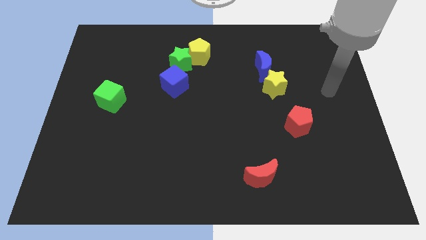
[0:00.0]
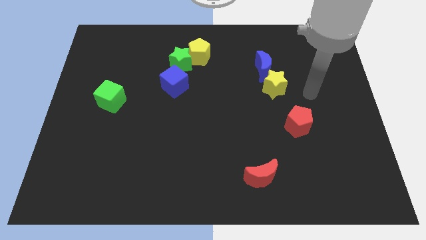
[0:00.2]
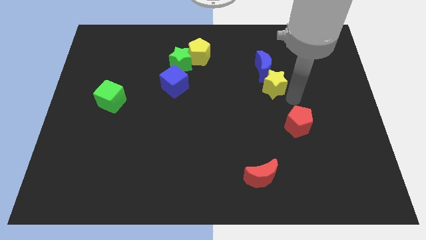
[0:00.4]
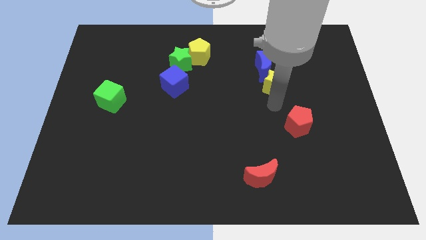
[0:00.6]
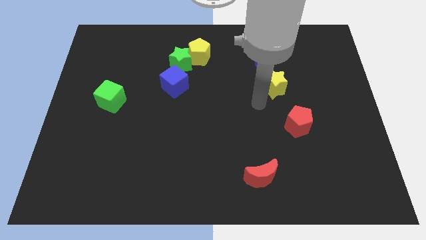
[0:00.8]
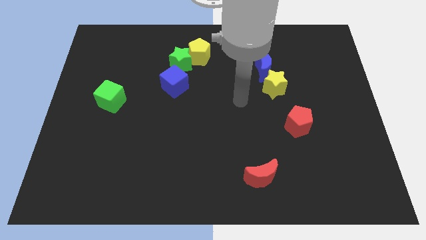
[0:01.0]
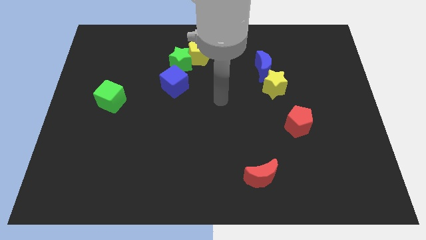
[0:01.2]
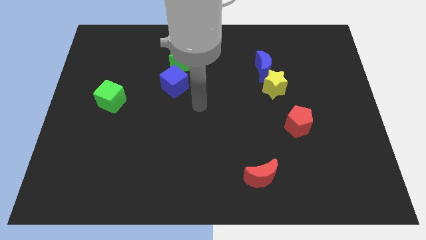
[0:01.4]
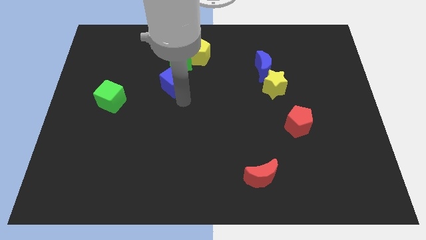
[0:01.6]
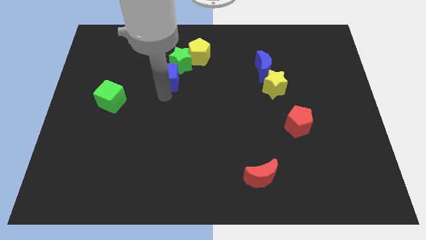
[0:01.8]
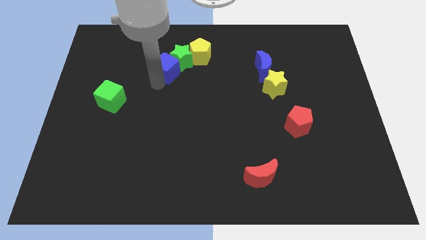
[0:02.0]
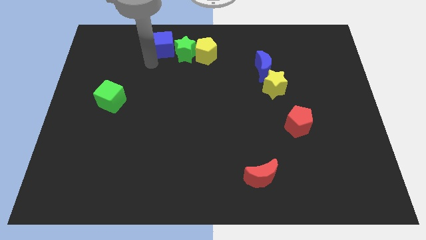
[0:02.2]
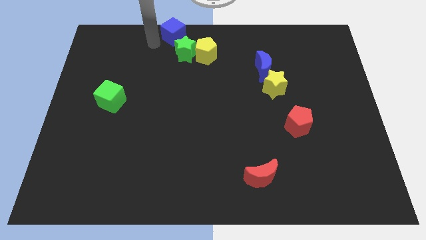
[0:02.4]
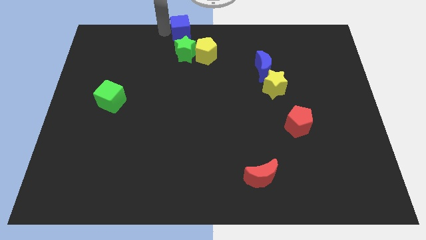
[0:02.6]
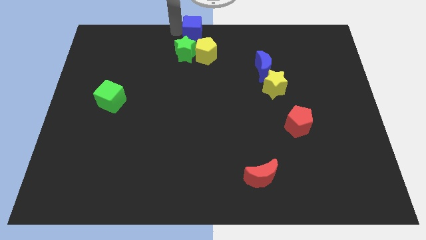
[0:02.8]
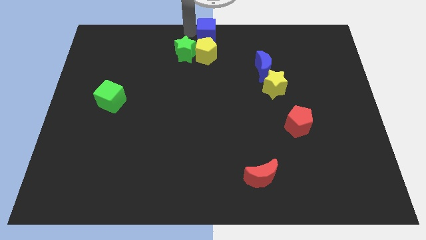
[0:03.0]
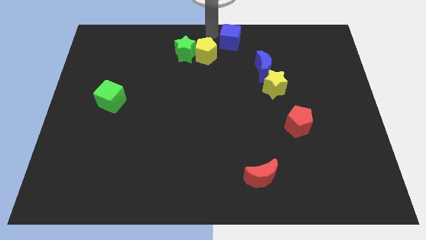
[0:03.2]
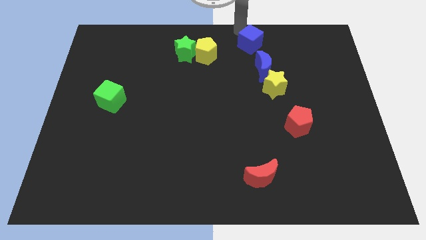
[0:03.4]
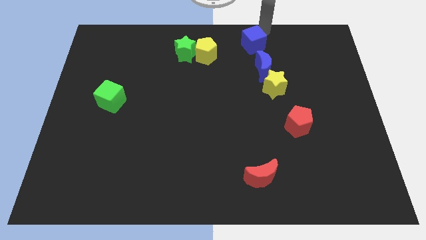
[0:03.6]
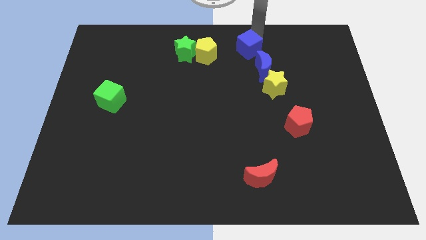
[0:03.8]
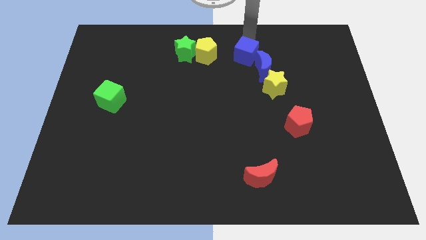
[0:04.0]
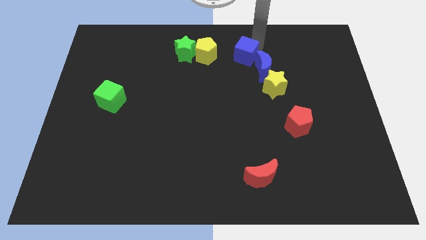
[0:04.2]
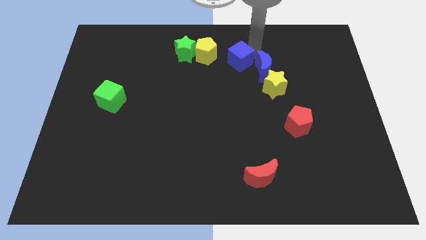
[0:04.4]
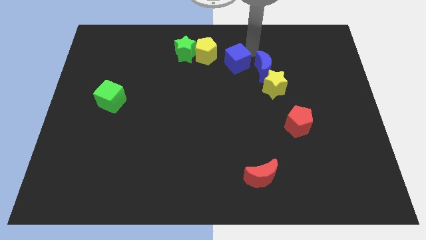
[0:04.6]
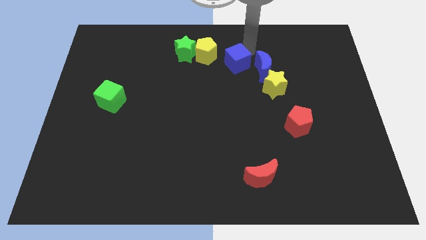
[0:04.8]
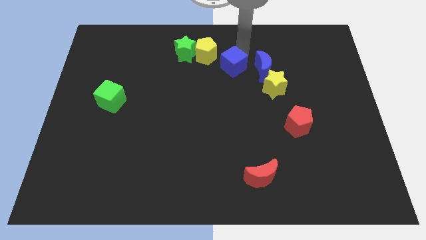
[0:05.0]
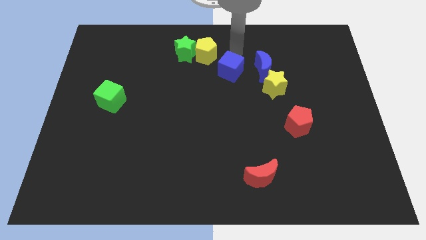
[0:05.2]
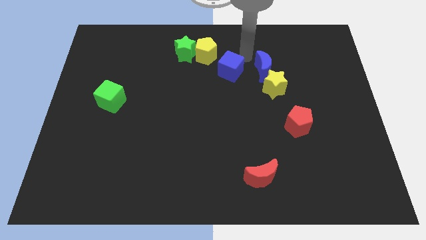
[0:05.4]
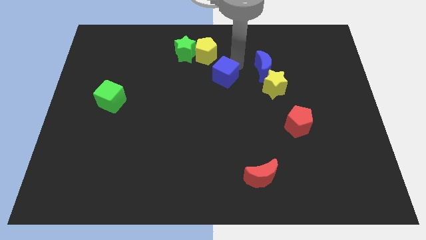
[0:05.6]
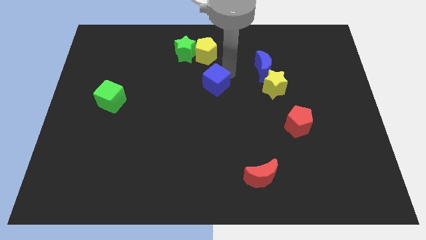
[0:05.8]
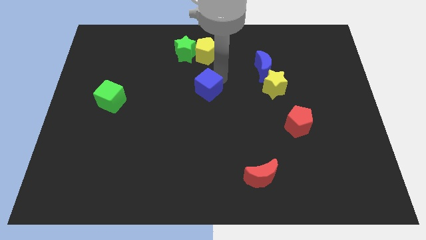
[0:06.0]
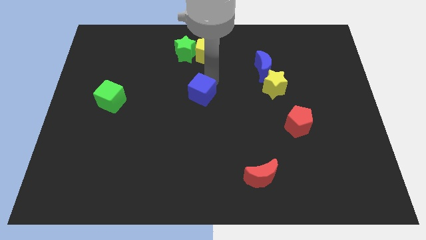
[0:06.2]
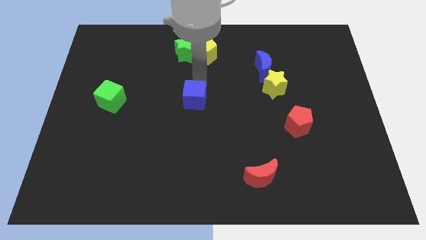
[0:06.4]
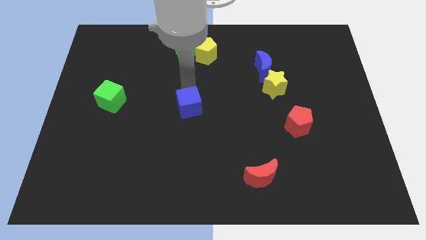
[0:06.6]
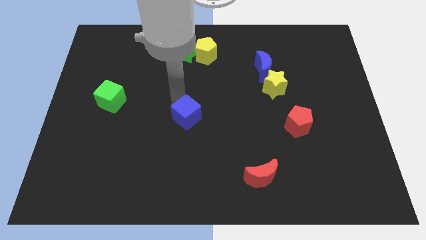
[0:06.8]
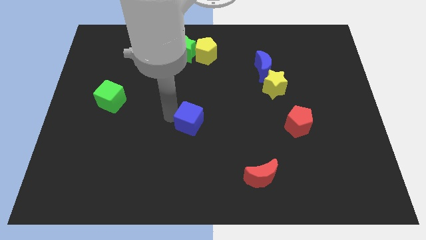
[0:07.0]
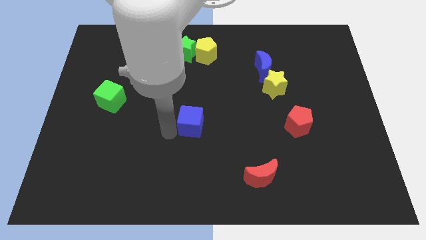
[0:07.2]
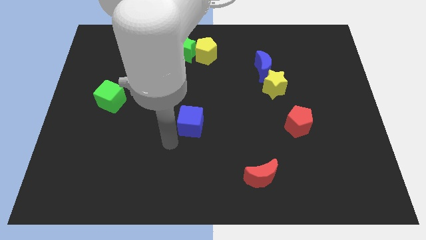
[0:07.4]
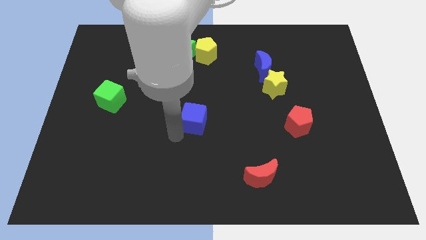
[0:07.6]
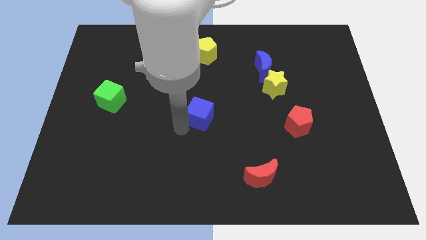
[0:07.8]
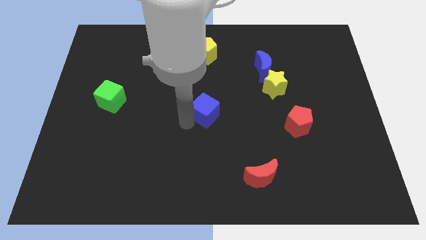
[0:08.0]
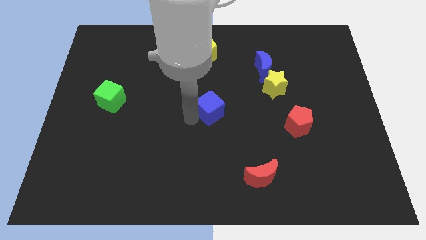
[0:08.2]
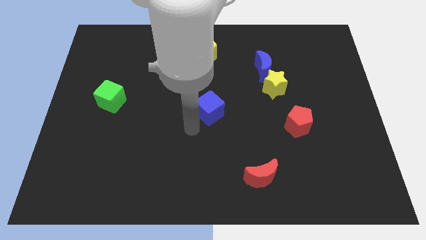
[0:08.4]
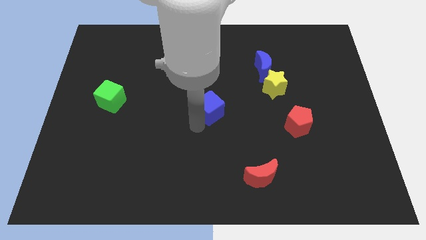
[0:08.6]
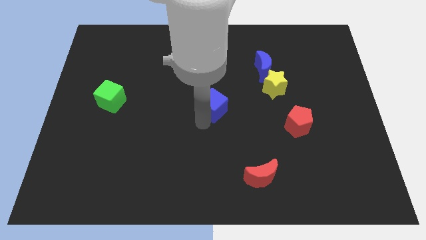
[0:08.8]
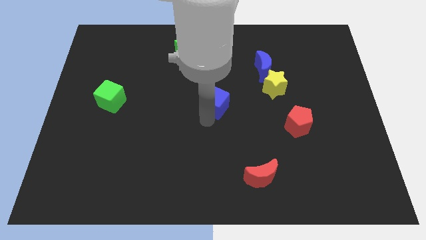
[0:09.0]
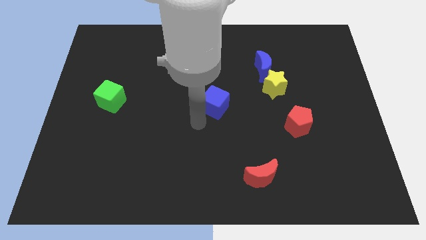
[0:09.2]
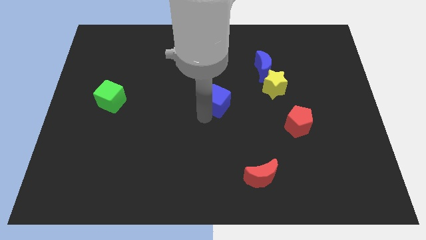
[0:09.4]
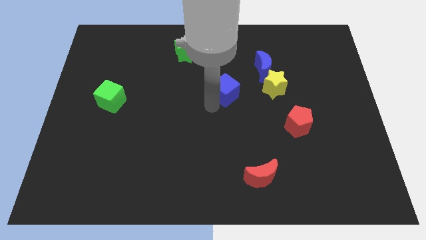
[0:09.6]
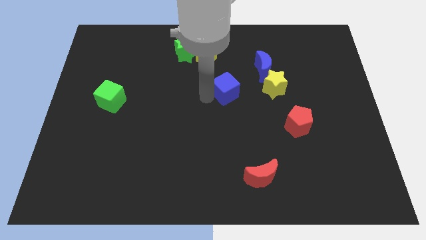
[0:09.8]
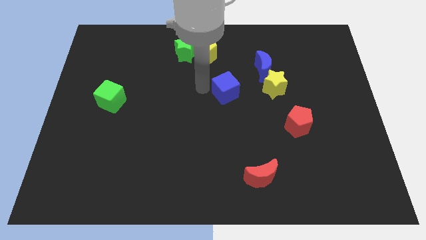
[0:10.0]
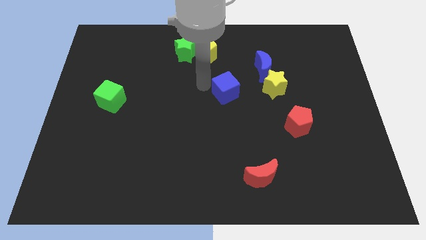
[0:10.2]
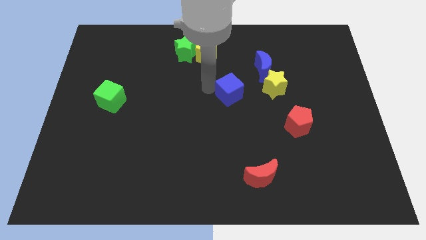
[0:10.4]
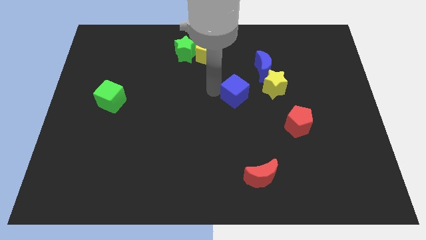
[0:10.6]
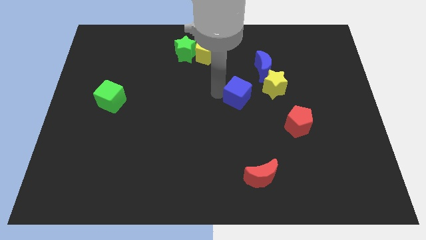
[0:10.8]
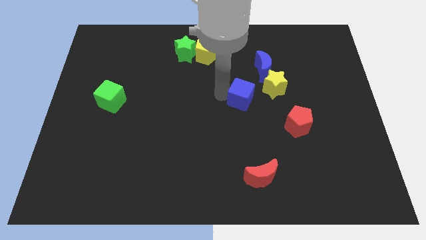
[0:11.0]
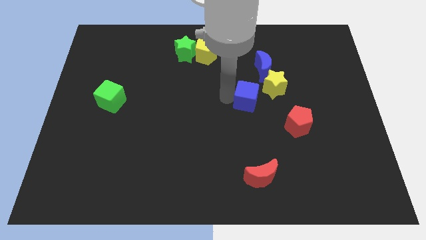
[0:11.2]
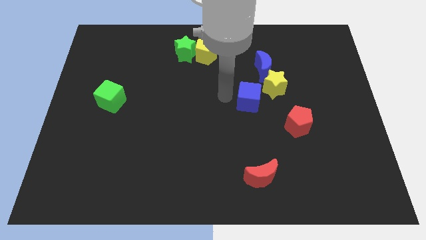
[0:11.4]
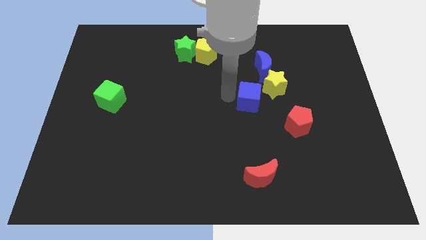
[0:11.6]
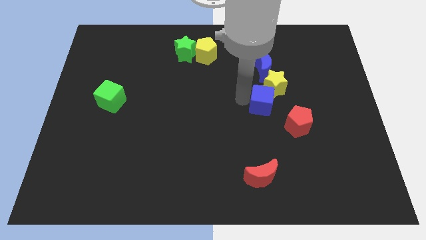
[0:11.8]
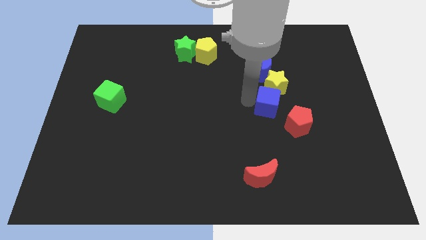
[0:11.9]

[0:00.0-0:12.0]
slide the blue cube to the right

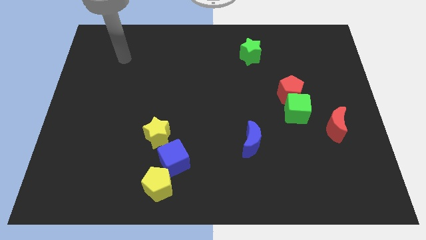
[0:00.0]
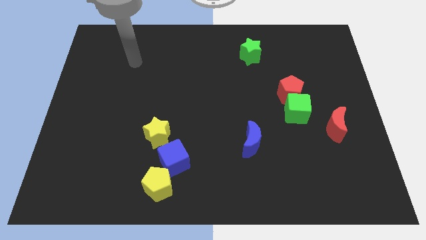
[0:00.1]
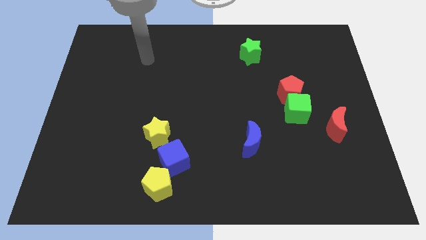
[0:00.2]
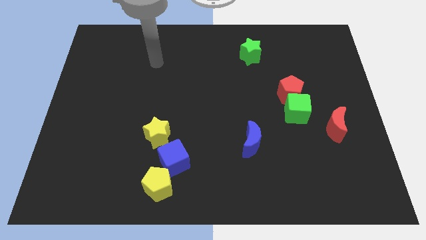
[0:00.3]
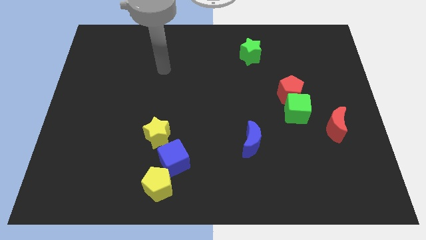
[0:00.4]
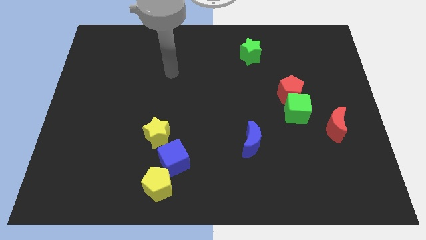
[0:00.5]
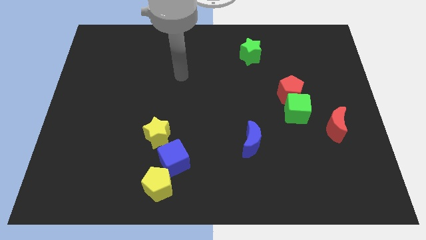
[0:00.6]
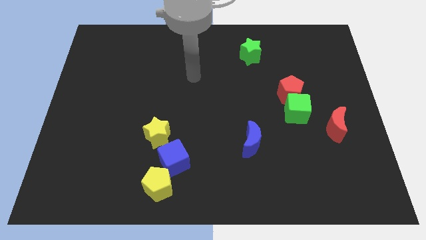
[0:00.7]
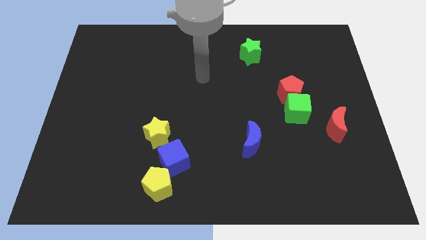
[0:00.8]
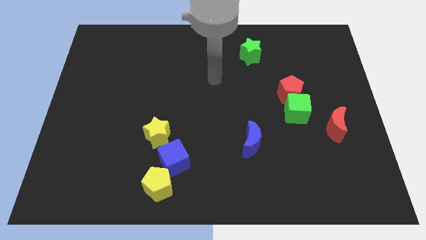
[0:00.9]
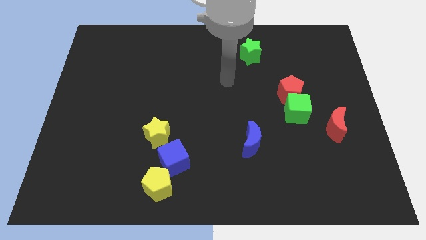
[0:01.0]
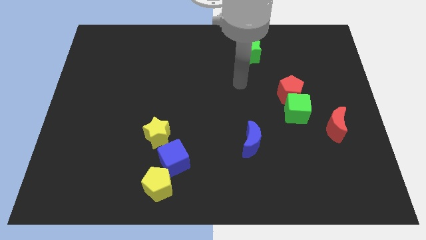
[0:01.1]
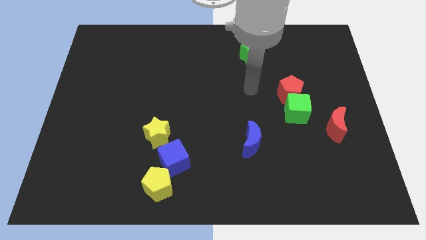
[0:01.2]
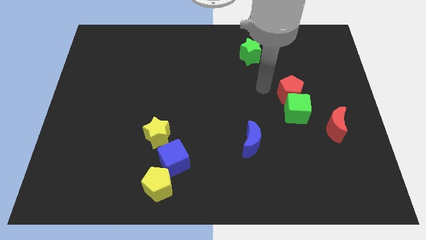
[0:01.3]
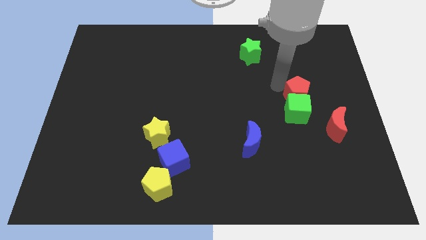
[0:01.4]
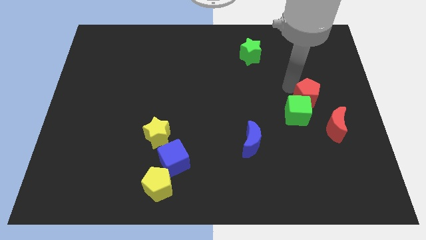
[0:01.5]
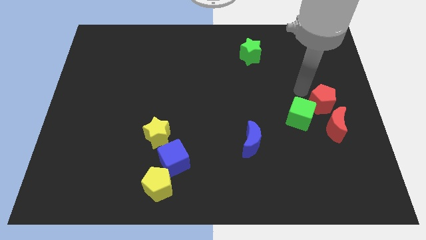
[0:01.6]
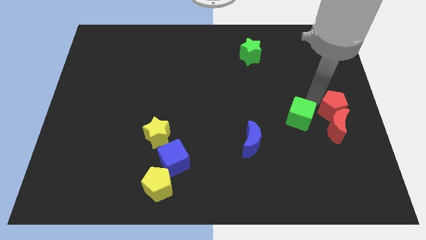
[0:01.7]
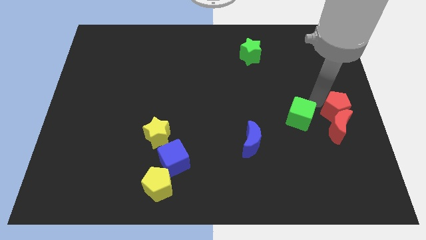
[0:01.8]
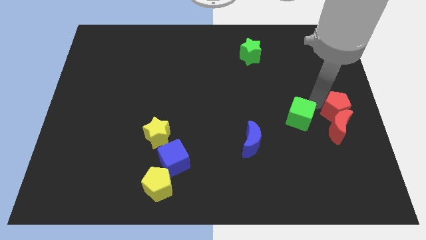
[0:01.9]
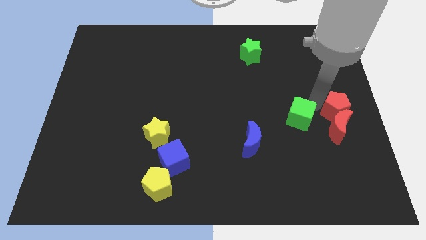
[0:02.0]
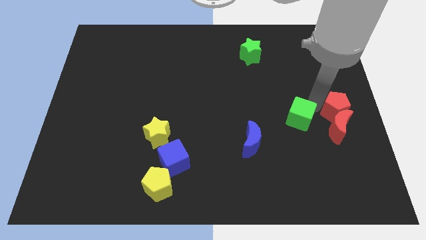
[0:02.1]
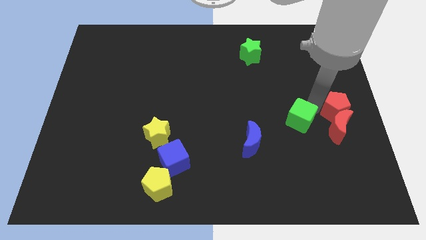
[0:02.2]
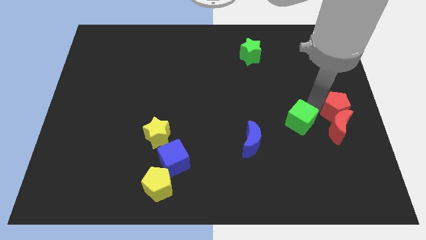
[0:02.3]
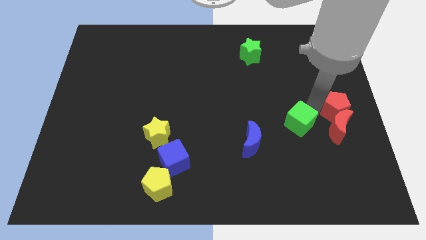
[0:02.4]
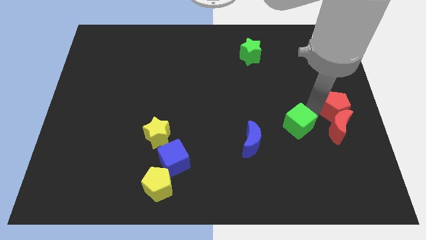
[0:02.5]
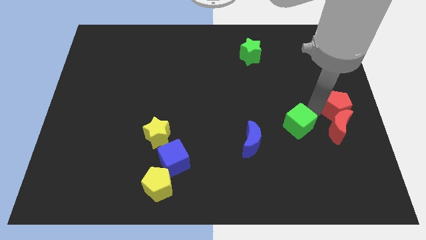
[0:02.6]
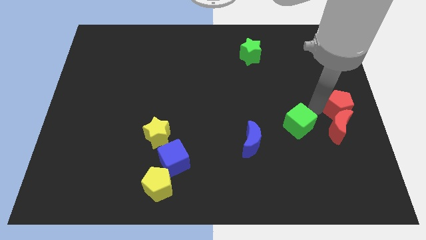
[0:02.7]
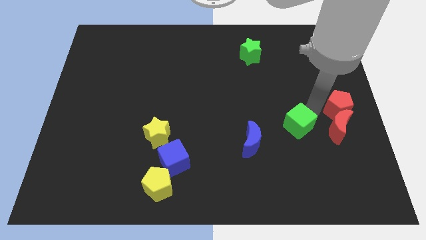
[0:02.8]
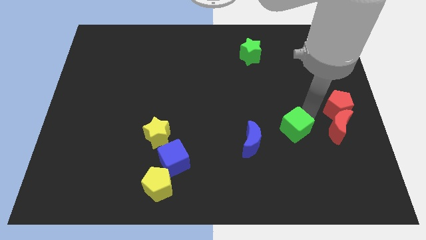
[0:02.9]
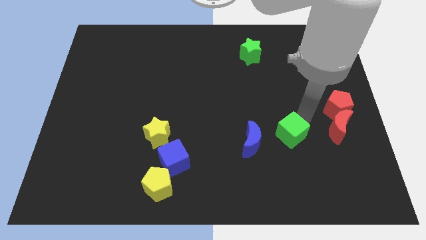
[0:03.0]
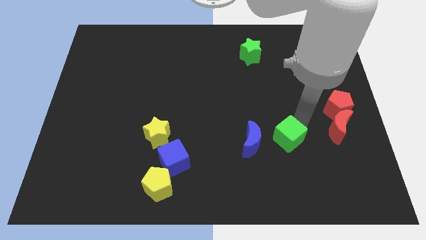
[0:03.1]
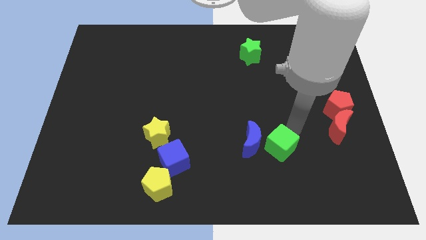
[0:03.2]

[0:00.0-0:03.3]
push the green cube somewhat downwards and left
